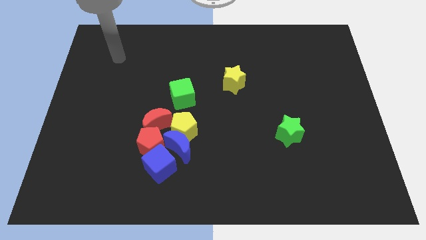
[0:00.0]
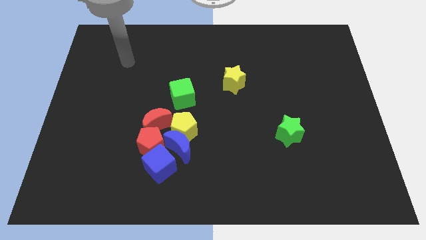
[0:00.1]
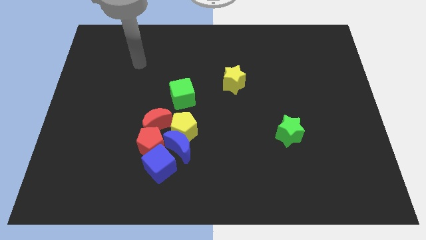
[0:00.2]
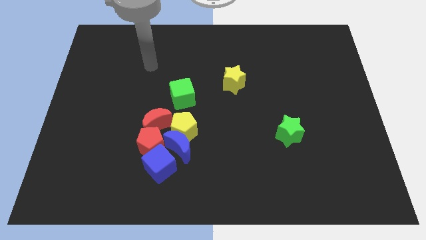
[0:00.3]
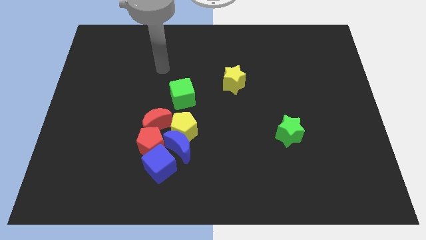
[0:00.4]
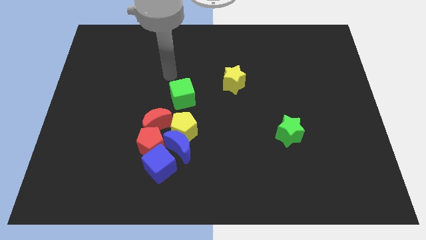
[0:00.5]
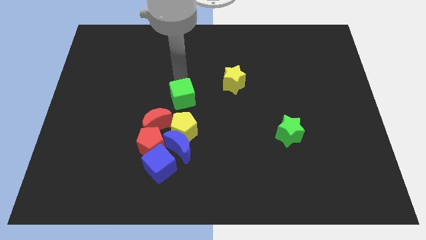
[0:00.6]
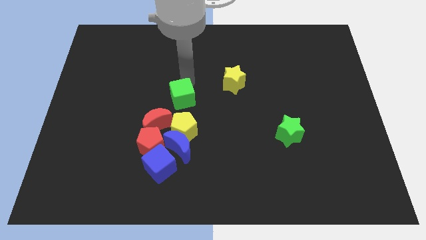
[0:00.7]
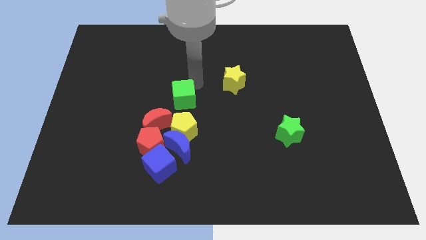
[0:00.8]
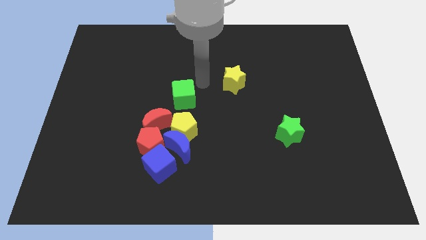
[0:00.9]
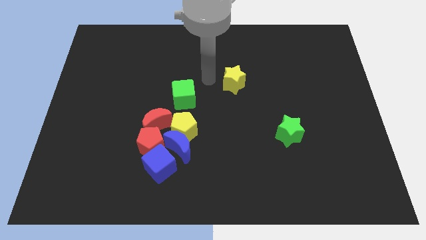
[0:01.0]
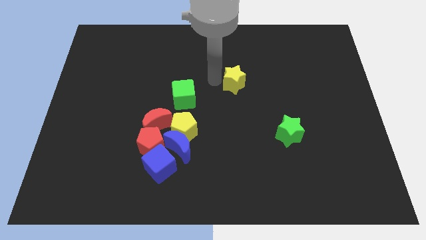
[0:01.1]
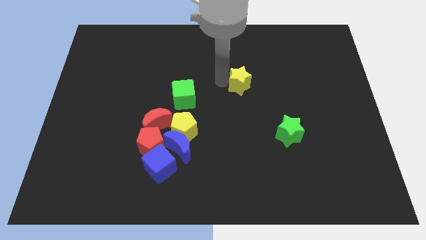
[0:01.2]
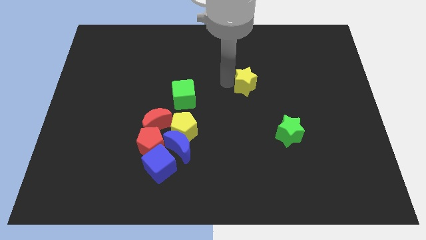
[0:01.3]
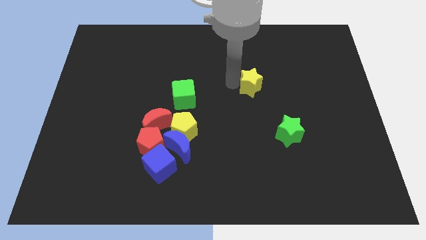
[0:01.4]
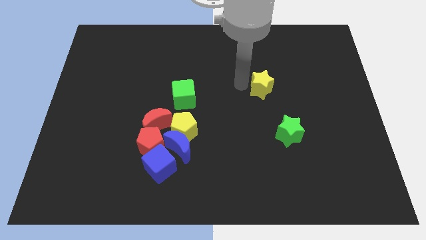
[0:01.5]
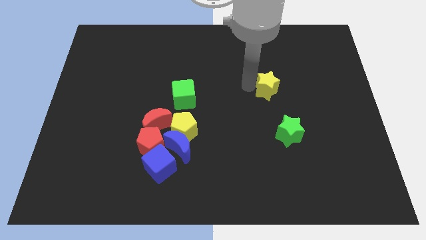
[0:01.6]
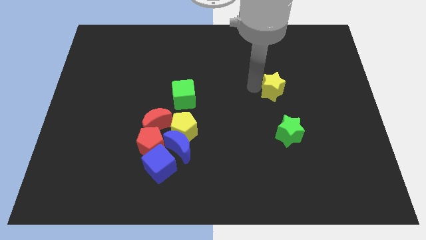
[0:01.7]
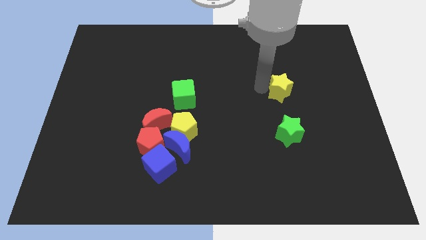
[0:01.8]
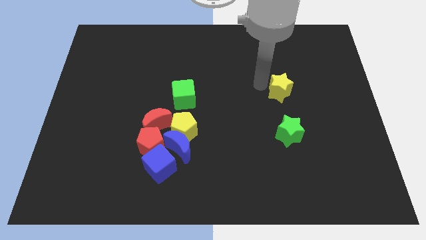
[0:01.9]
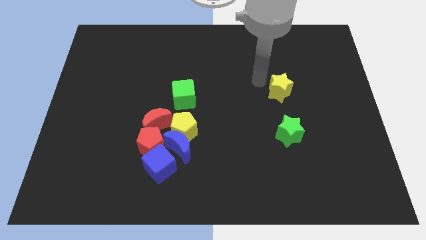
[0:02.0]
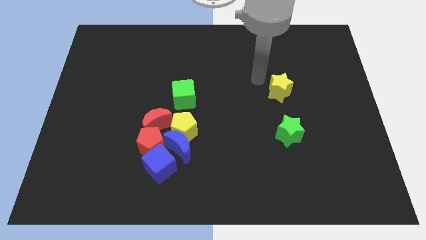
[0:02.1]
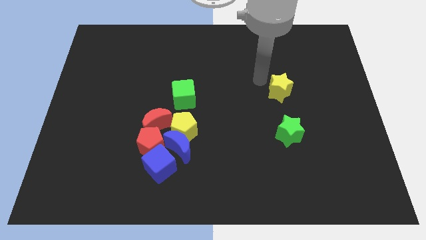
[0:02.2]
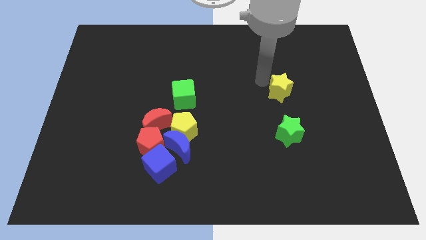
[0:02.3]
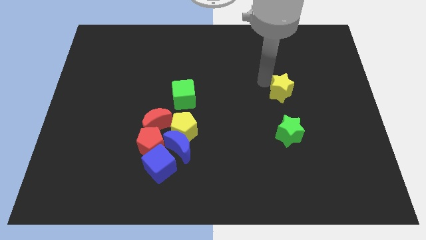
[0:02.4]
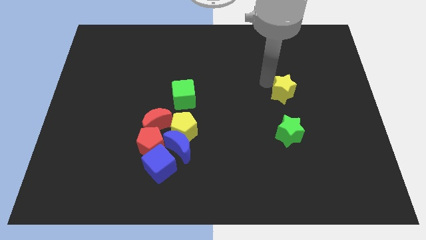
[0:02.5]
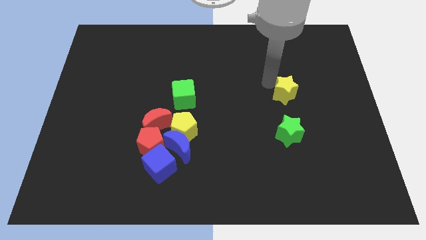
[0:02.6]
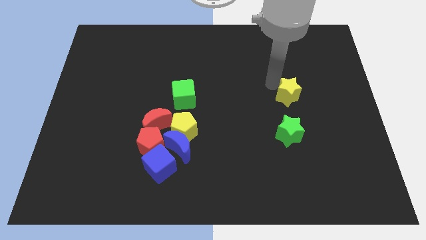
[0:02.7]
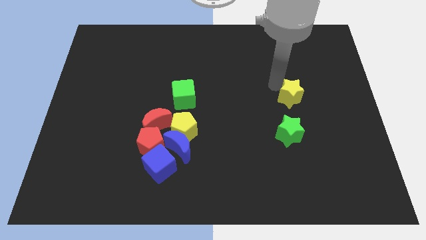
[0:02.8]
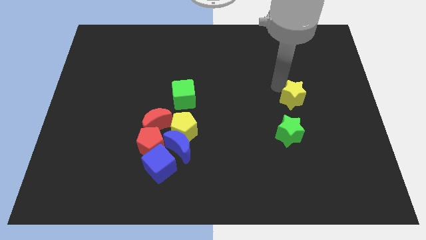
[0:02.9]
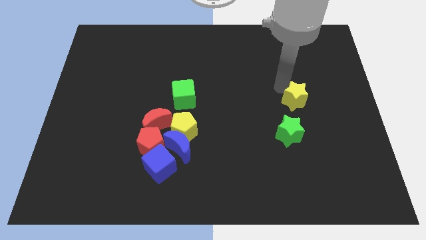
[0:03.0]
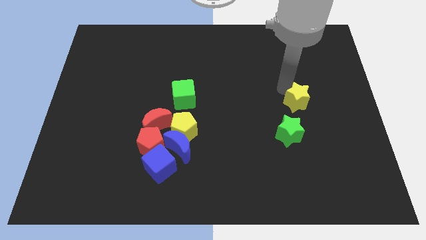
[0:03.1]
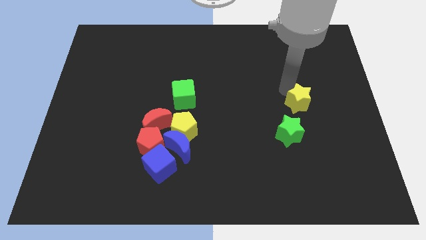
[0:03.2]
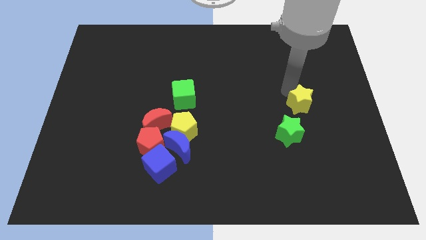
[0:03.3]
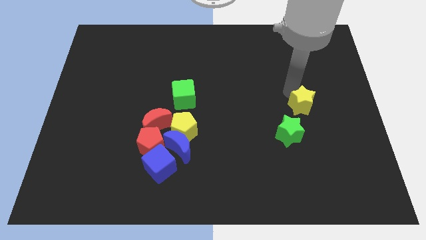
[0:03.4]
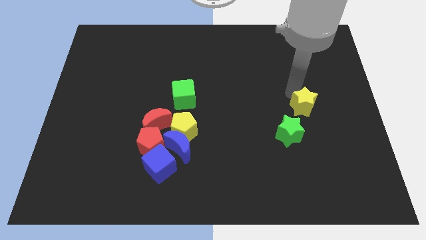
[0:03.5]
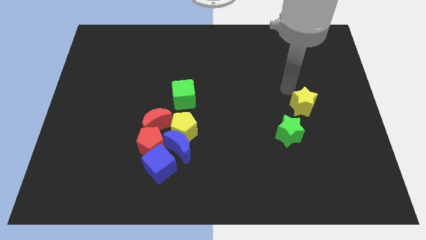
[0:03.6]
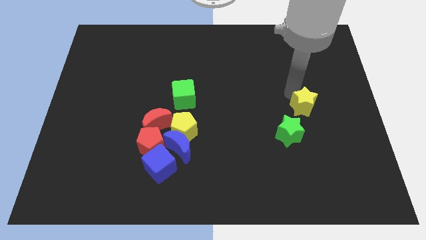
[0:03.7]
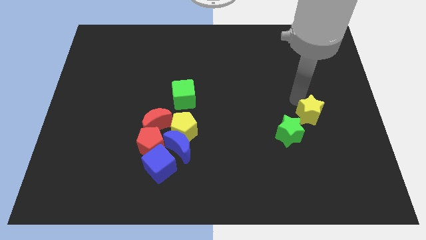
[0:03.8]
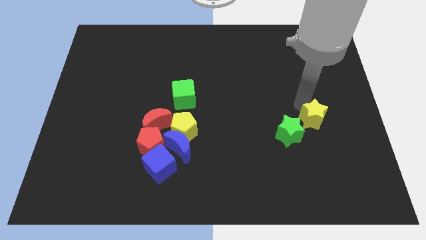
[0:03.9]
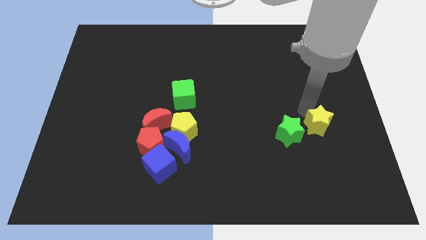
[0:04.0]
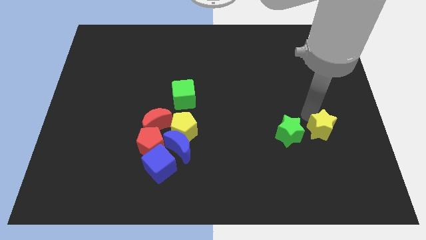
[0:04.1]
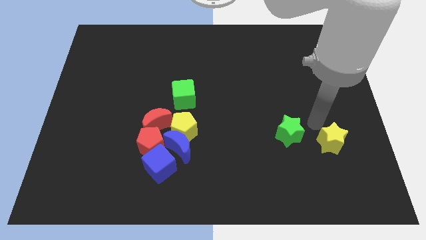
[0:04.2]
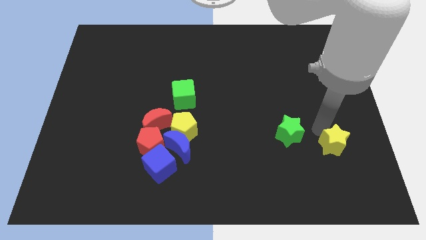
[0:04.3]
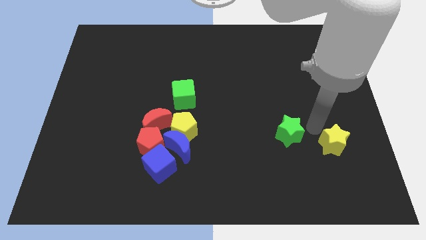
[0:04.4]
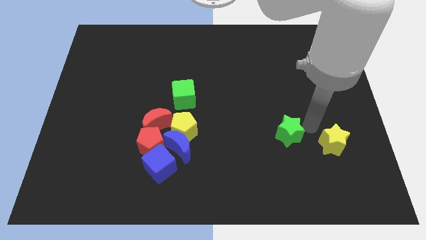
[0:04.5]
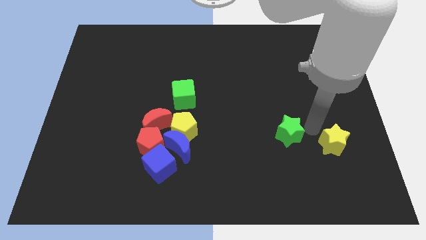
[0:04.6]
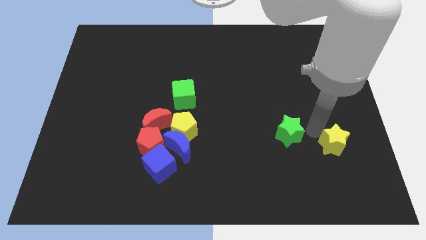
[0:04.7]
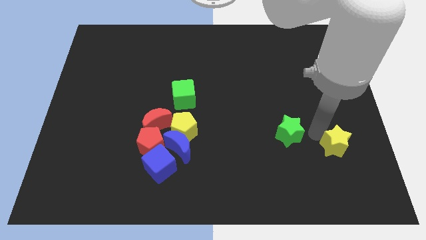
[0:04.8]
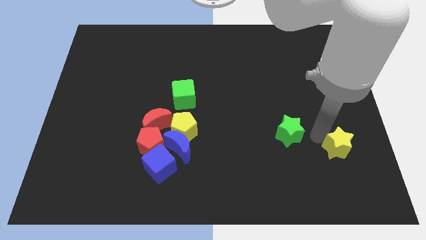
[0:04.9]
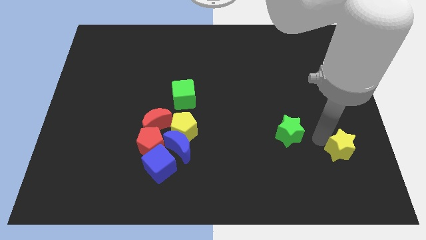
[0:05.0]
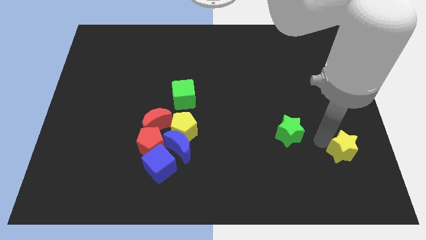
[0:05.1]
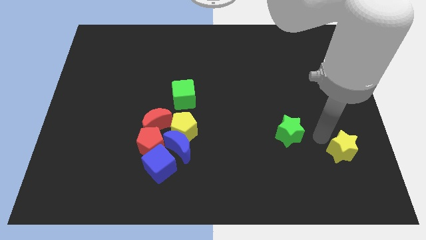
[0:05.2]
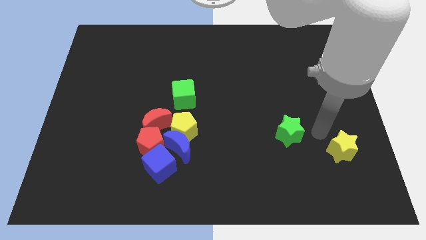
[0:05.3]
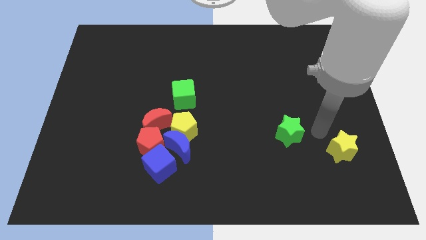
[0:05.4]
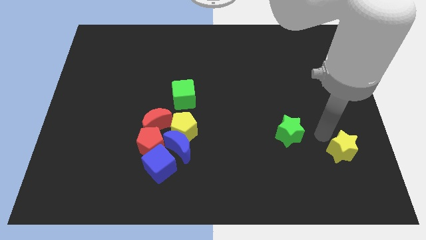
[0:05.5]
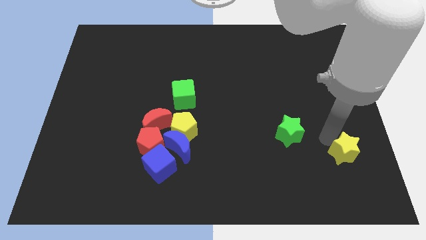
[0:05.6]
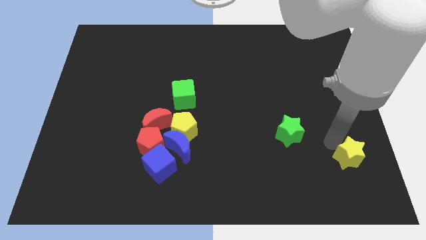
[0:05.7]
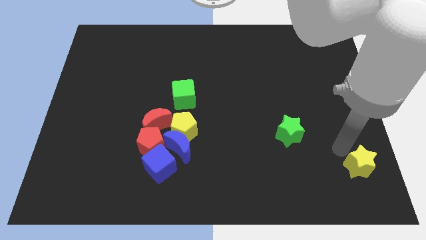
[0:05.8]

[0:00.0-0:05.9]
slide the yellow star to the bottom right corner
